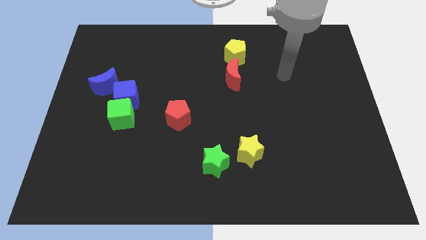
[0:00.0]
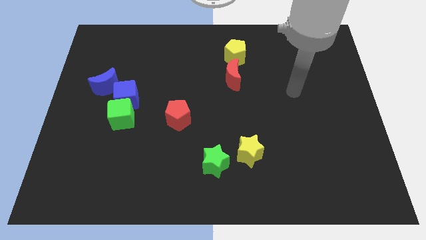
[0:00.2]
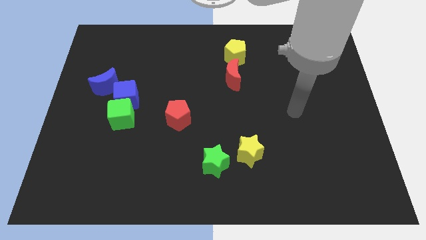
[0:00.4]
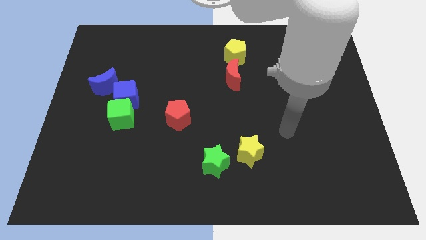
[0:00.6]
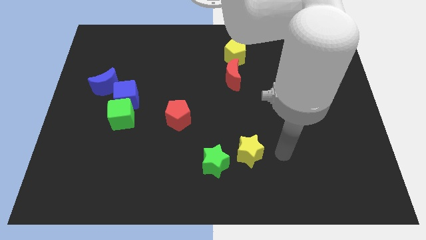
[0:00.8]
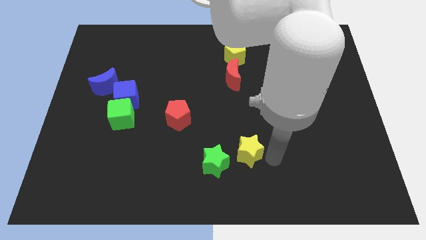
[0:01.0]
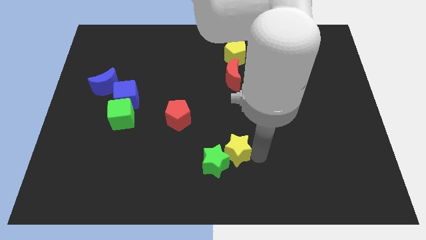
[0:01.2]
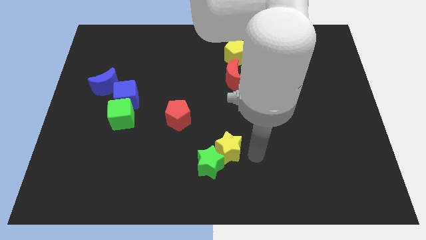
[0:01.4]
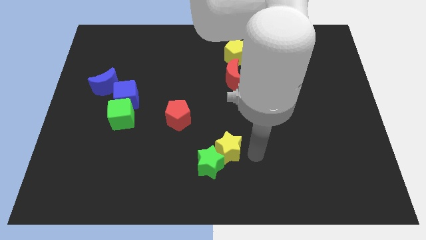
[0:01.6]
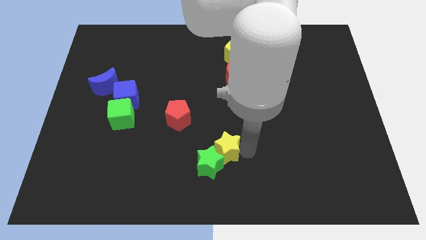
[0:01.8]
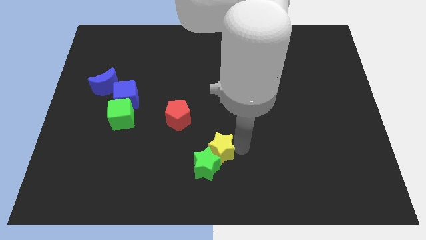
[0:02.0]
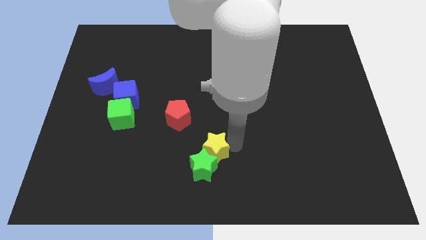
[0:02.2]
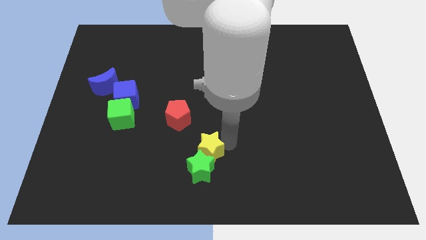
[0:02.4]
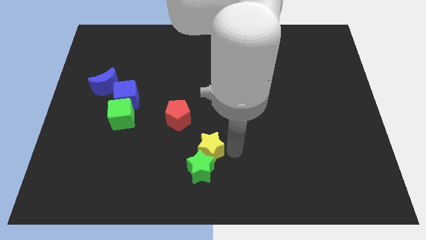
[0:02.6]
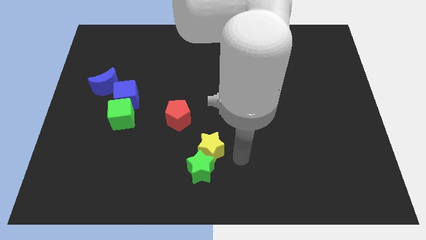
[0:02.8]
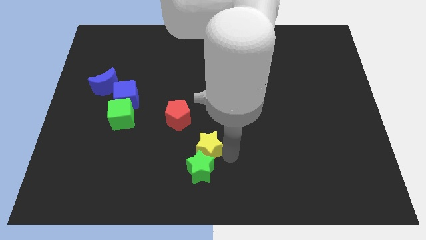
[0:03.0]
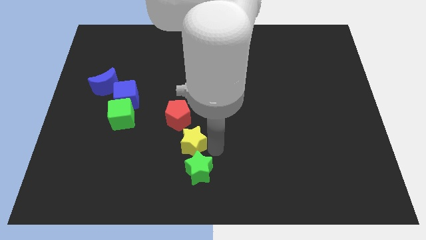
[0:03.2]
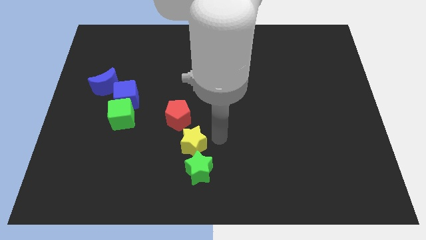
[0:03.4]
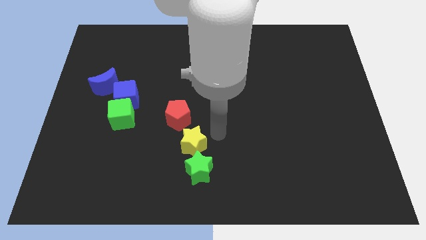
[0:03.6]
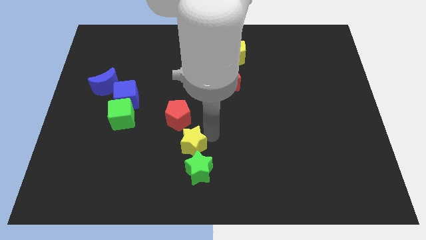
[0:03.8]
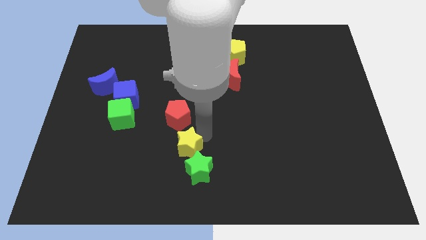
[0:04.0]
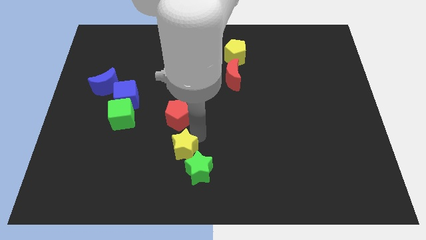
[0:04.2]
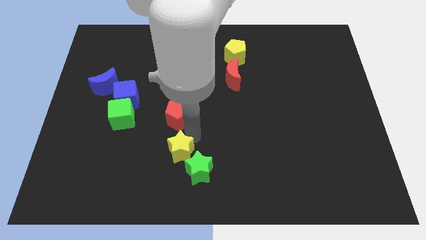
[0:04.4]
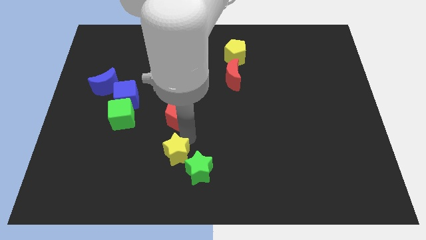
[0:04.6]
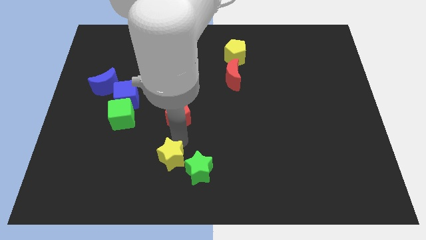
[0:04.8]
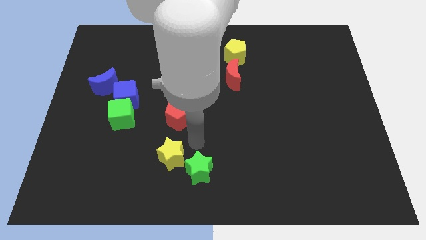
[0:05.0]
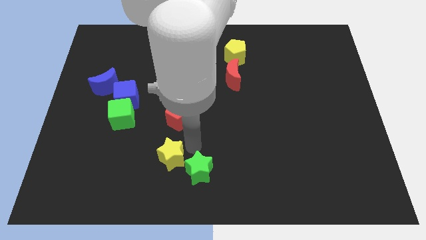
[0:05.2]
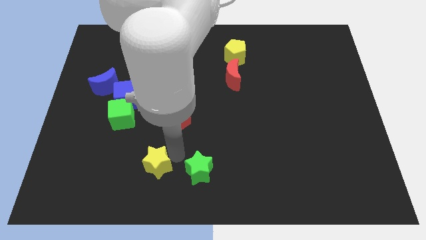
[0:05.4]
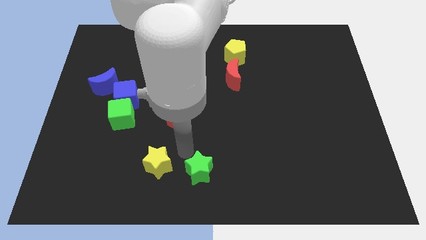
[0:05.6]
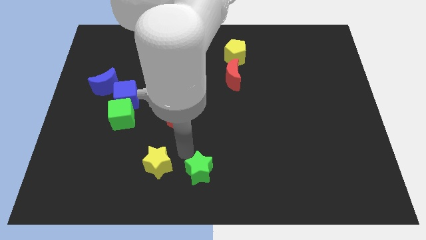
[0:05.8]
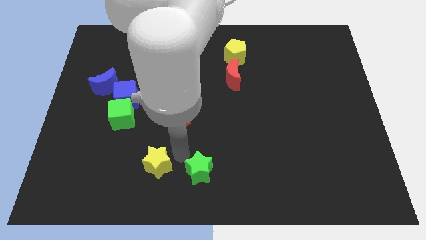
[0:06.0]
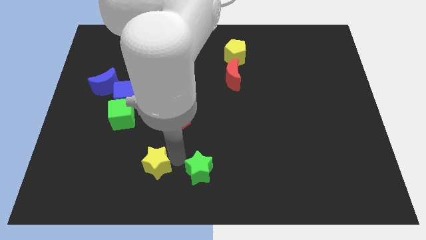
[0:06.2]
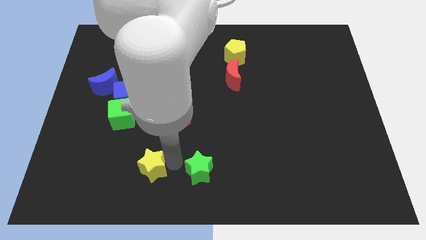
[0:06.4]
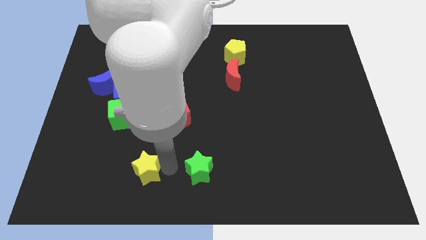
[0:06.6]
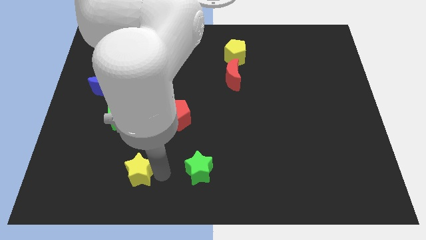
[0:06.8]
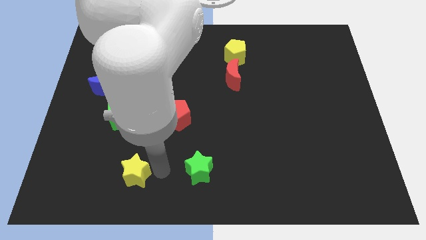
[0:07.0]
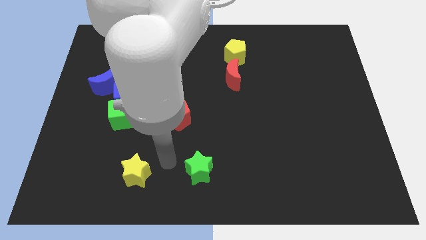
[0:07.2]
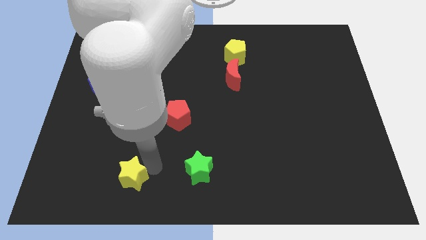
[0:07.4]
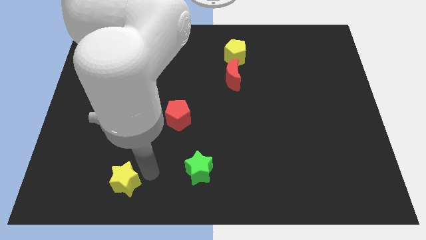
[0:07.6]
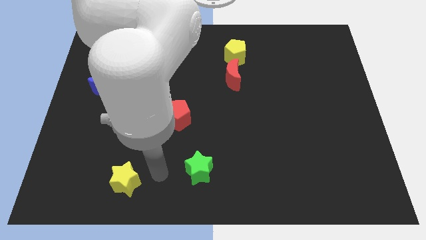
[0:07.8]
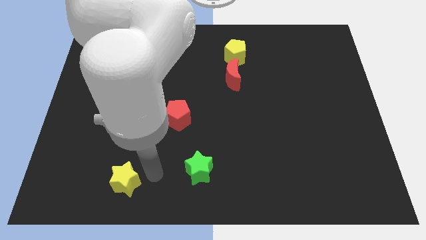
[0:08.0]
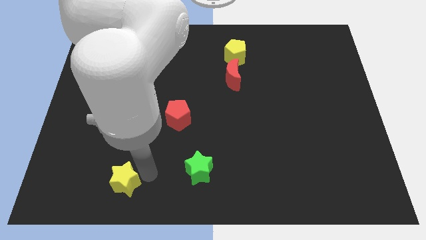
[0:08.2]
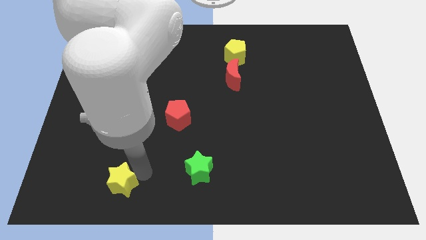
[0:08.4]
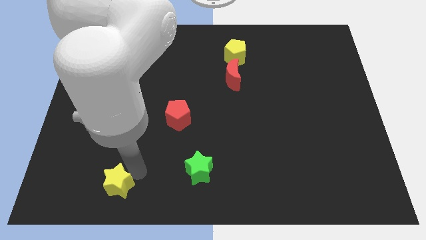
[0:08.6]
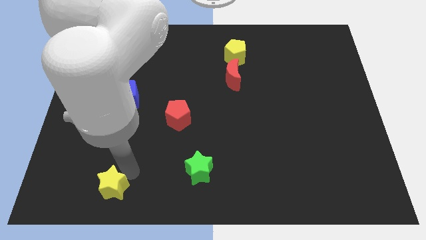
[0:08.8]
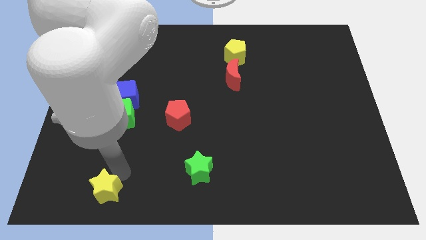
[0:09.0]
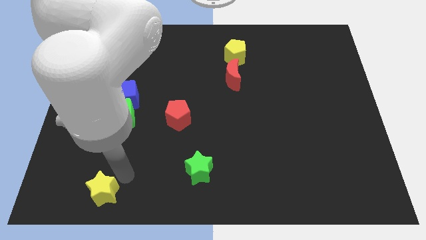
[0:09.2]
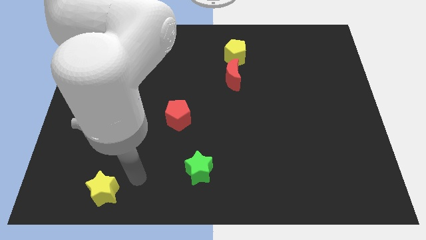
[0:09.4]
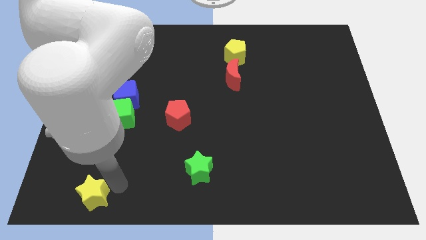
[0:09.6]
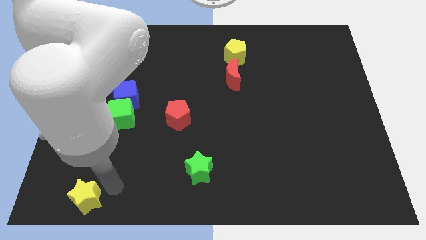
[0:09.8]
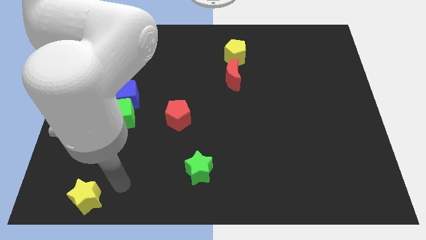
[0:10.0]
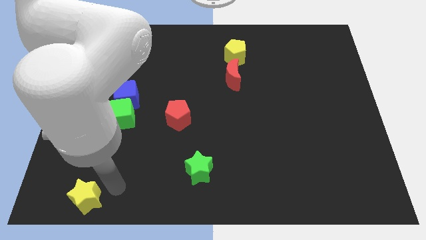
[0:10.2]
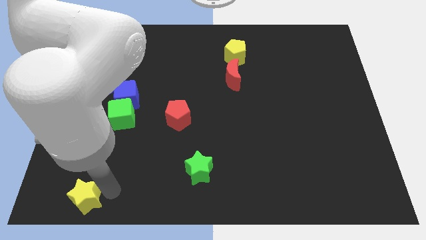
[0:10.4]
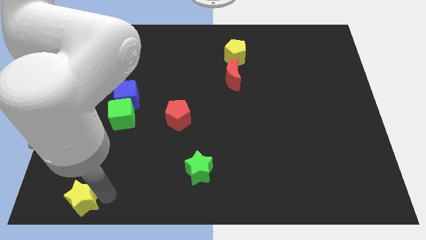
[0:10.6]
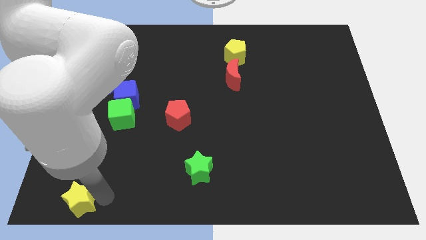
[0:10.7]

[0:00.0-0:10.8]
push the yellow star to the bottom left
